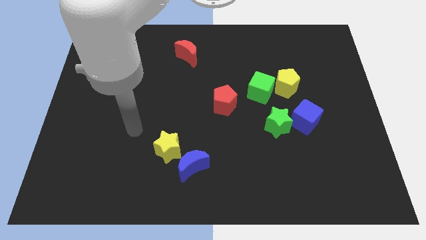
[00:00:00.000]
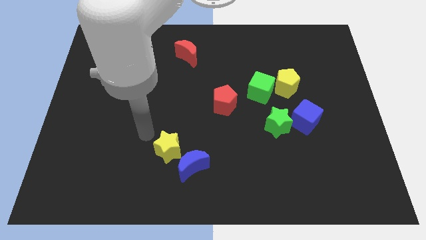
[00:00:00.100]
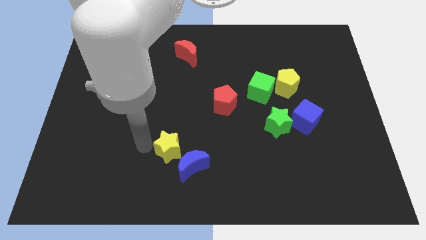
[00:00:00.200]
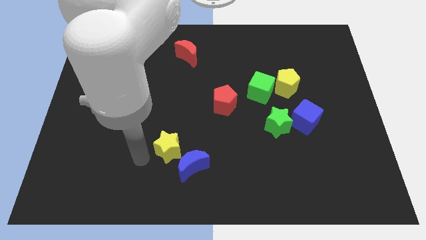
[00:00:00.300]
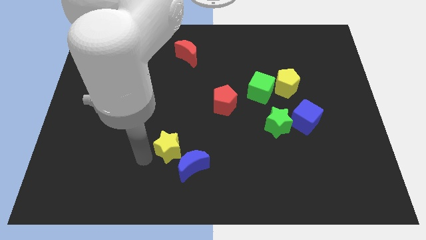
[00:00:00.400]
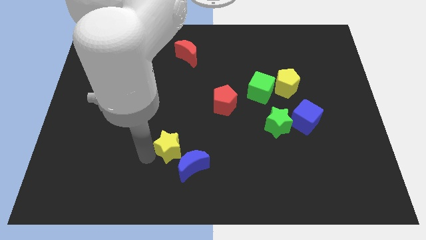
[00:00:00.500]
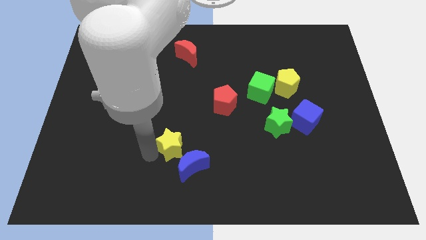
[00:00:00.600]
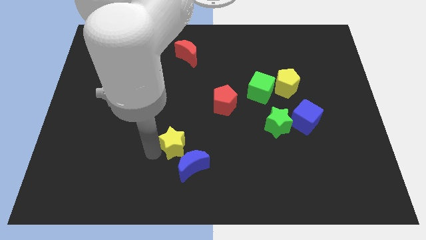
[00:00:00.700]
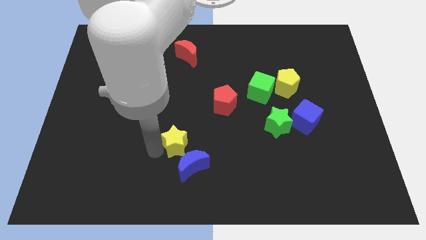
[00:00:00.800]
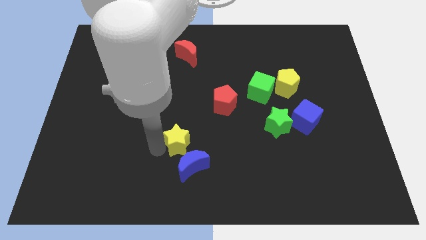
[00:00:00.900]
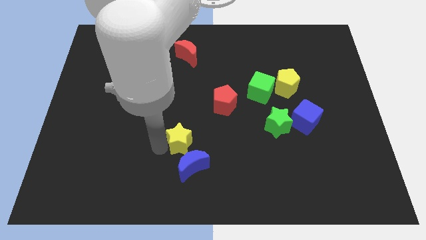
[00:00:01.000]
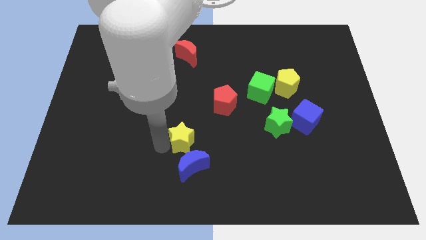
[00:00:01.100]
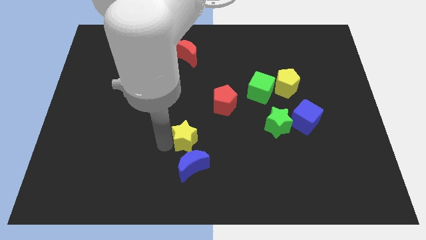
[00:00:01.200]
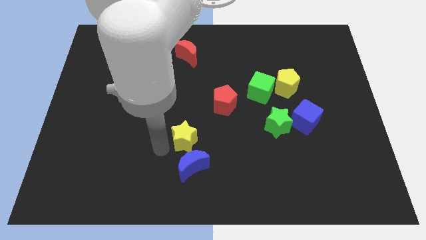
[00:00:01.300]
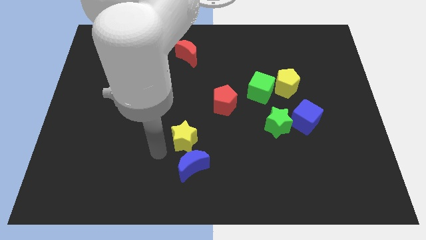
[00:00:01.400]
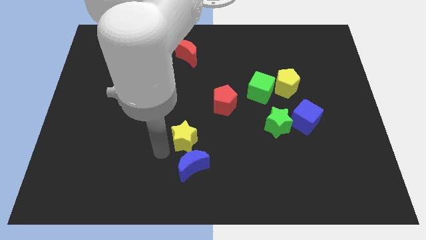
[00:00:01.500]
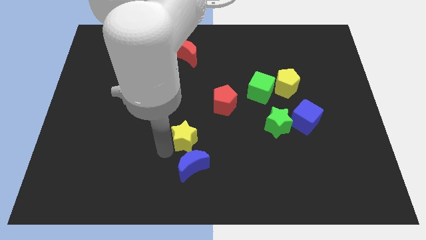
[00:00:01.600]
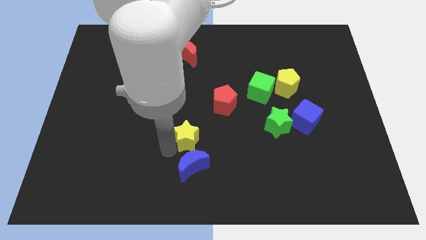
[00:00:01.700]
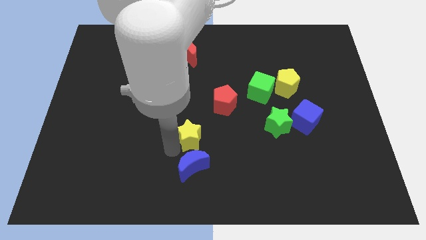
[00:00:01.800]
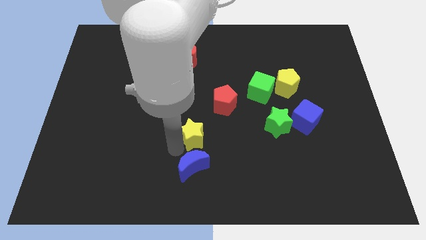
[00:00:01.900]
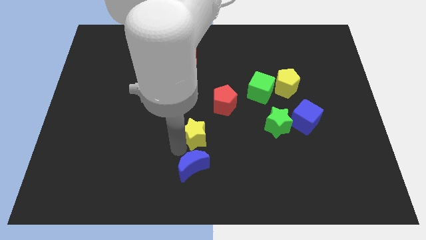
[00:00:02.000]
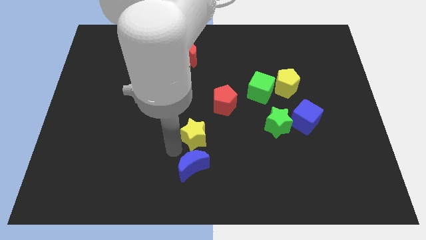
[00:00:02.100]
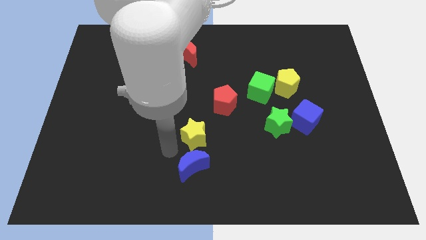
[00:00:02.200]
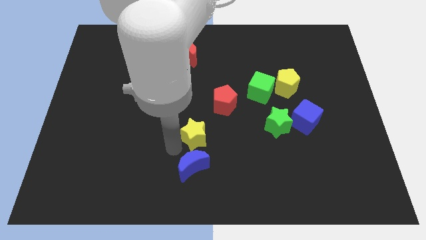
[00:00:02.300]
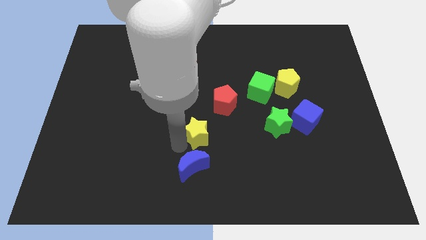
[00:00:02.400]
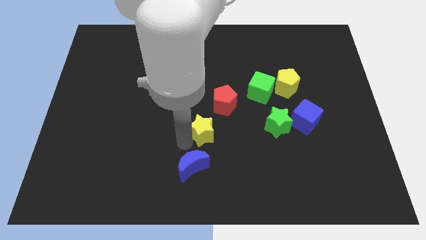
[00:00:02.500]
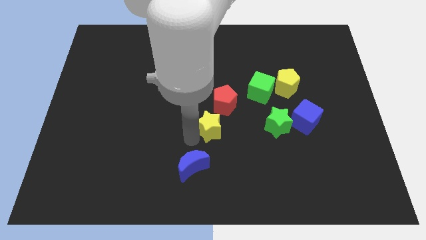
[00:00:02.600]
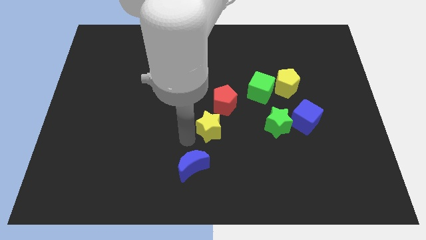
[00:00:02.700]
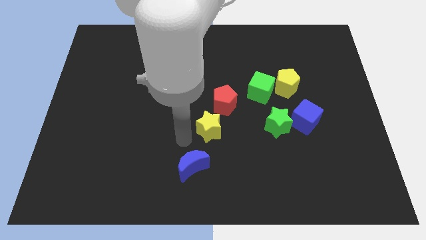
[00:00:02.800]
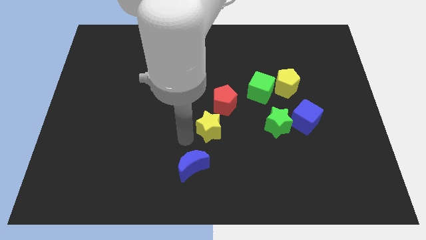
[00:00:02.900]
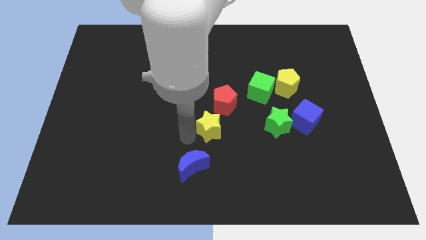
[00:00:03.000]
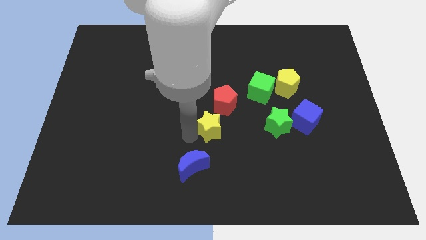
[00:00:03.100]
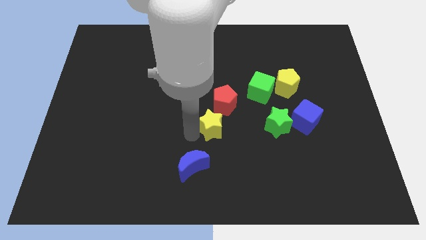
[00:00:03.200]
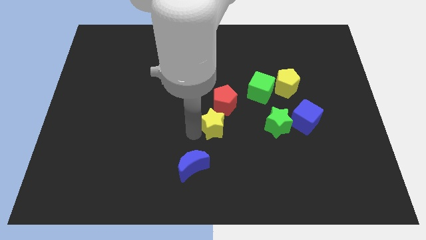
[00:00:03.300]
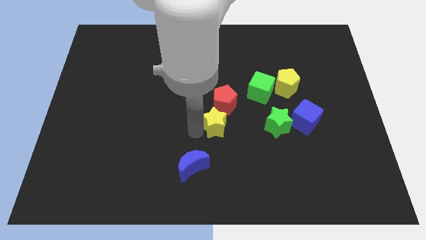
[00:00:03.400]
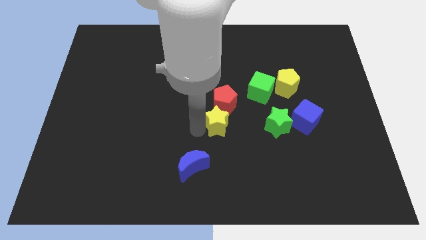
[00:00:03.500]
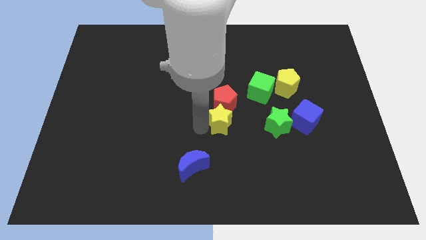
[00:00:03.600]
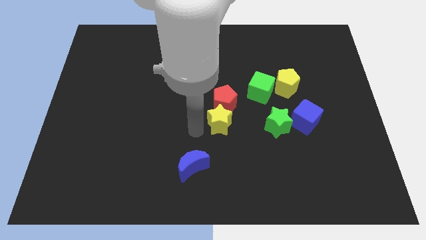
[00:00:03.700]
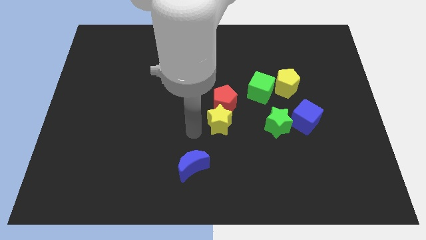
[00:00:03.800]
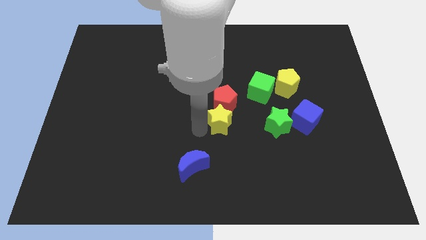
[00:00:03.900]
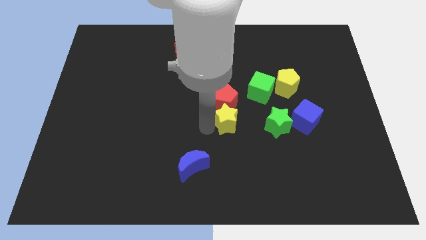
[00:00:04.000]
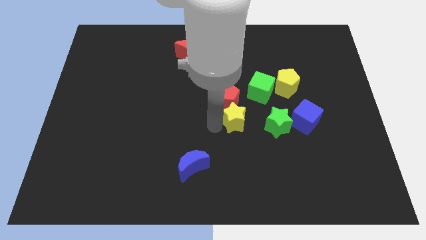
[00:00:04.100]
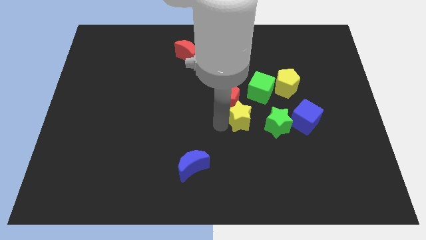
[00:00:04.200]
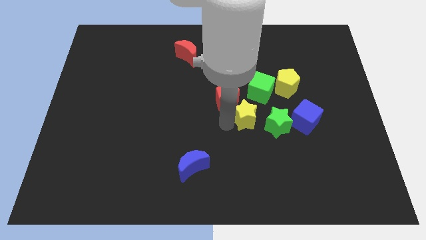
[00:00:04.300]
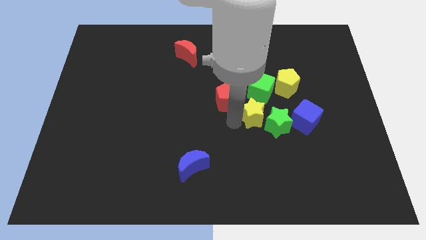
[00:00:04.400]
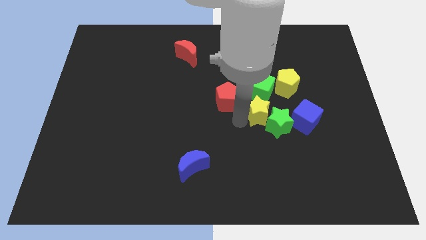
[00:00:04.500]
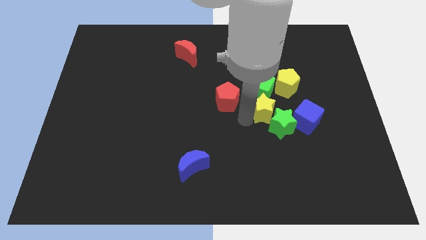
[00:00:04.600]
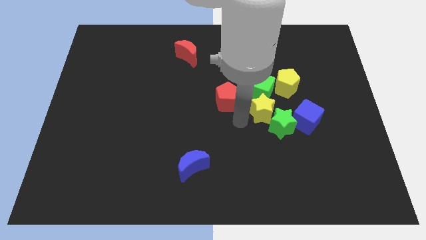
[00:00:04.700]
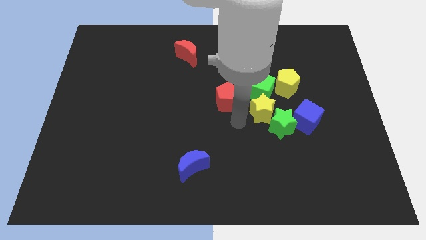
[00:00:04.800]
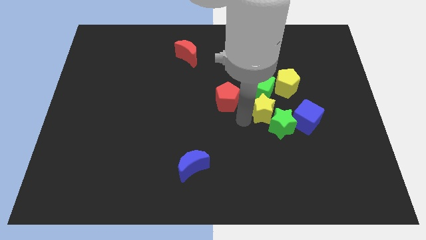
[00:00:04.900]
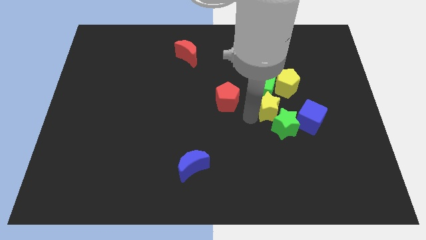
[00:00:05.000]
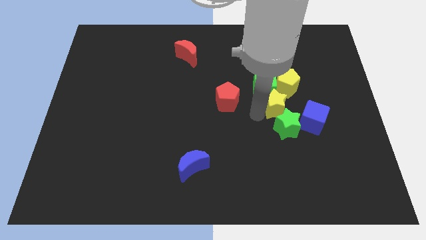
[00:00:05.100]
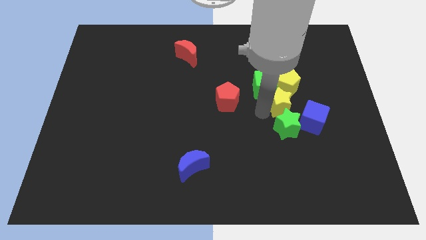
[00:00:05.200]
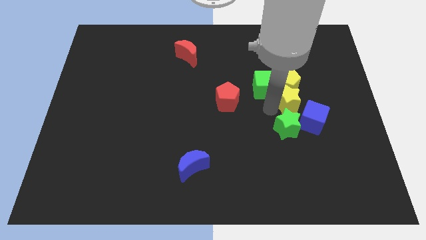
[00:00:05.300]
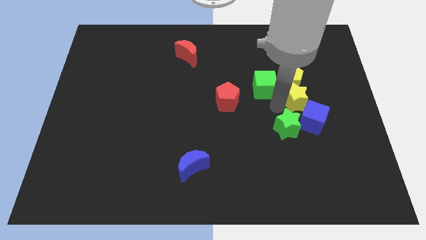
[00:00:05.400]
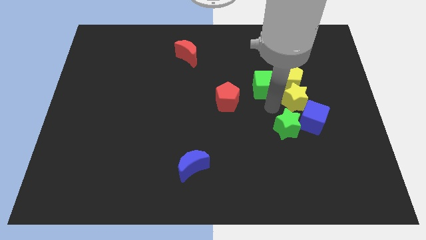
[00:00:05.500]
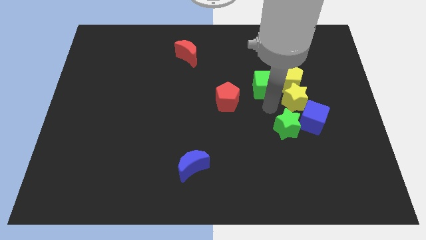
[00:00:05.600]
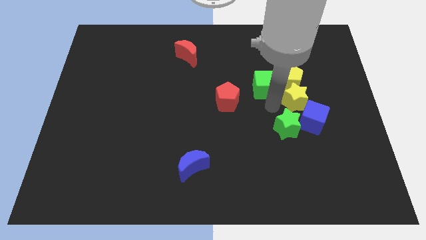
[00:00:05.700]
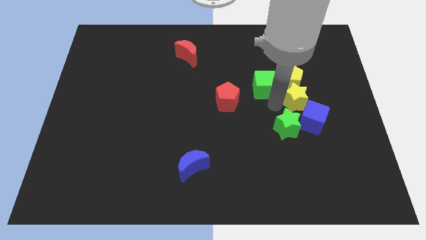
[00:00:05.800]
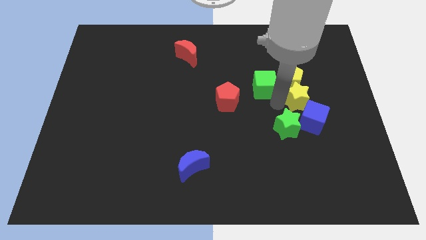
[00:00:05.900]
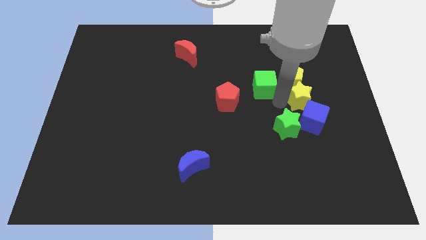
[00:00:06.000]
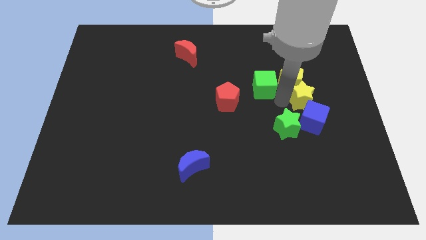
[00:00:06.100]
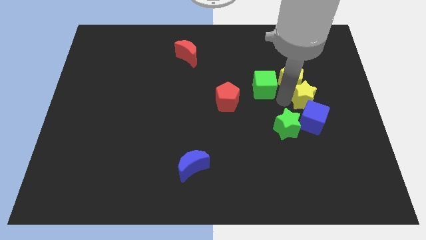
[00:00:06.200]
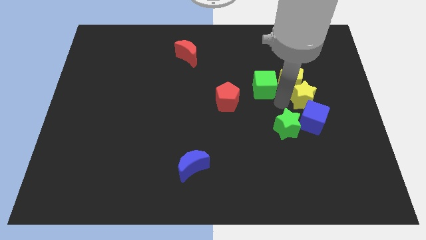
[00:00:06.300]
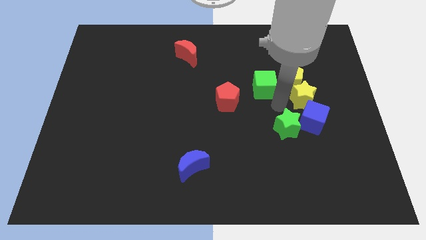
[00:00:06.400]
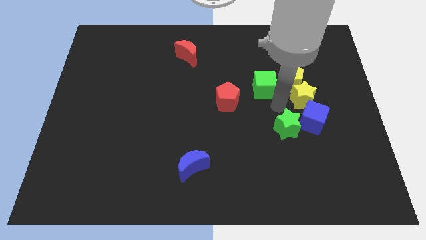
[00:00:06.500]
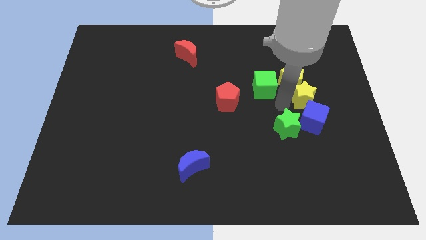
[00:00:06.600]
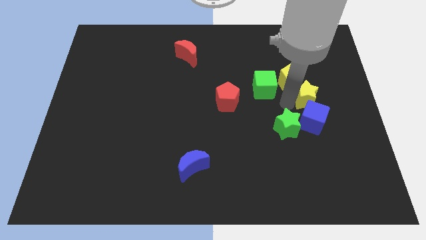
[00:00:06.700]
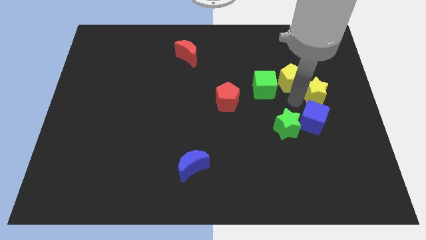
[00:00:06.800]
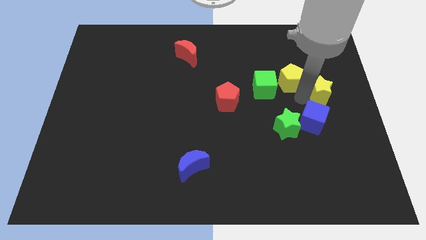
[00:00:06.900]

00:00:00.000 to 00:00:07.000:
push the yellow star to the right side of the board
